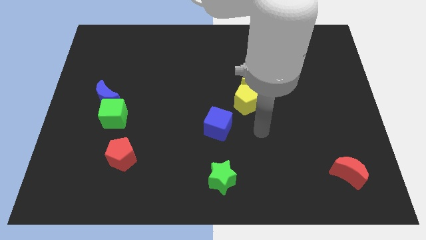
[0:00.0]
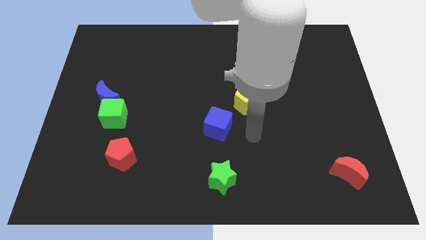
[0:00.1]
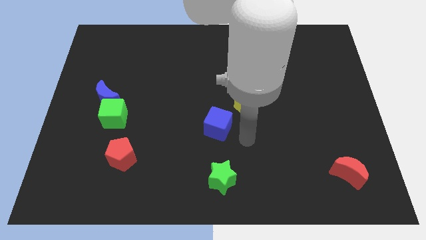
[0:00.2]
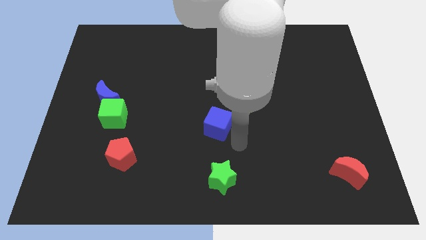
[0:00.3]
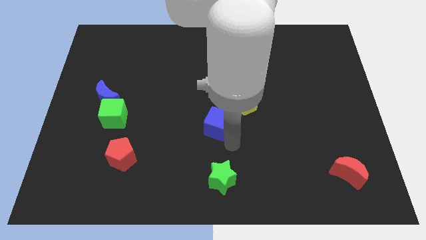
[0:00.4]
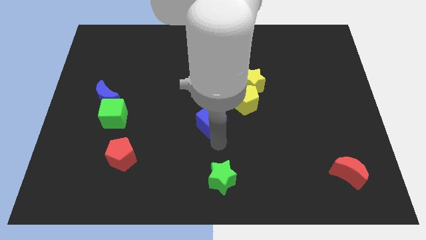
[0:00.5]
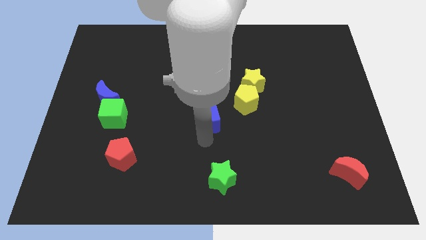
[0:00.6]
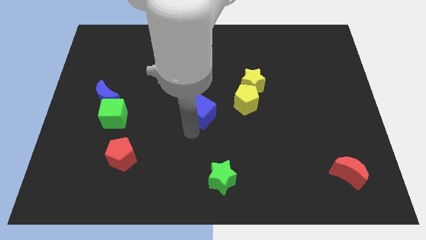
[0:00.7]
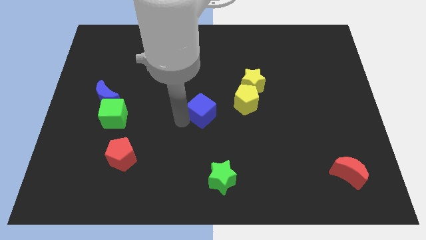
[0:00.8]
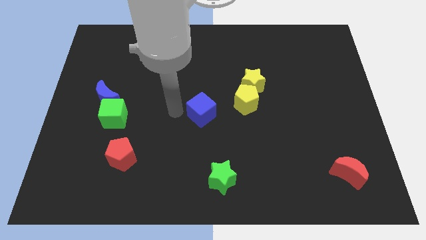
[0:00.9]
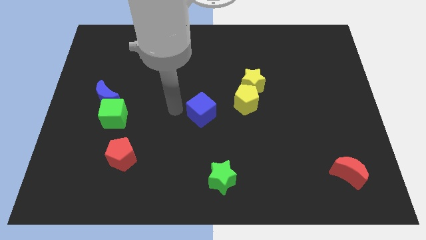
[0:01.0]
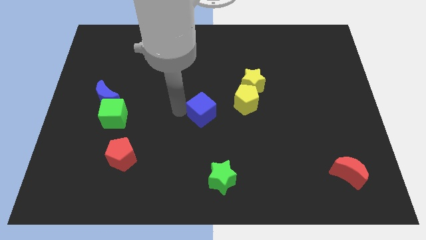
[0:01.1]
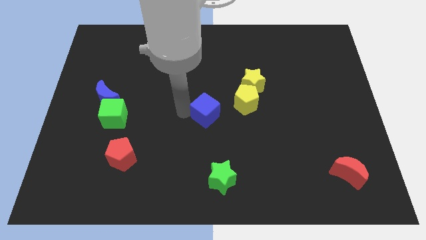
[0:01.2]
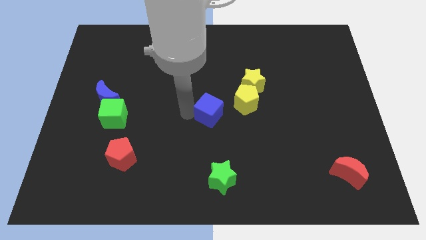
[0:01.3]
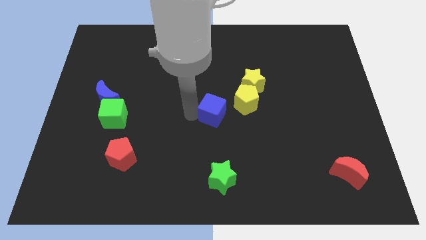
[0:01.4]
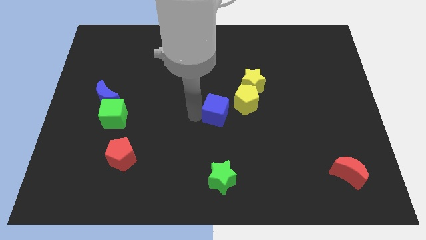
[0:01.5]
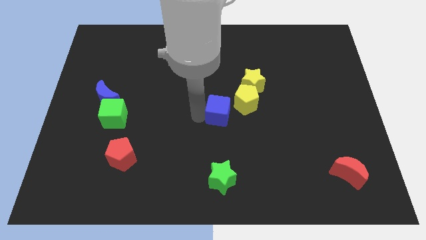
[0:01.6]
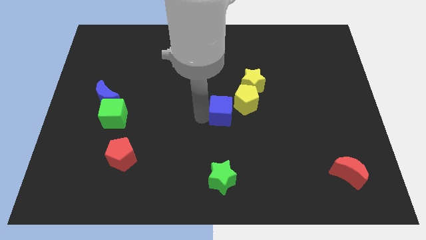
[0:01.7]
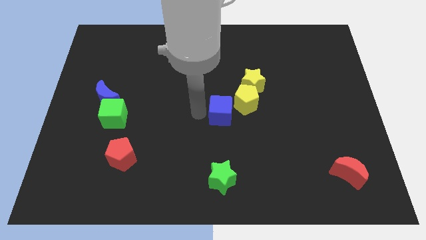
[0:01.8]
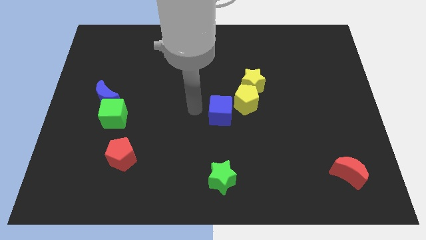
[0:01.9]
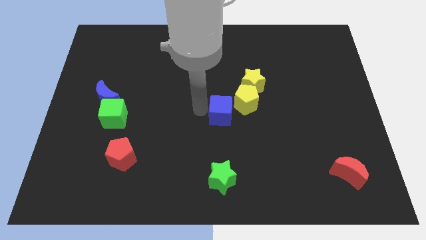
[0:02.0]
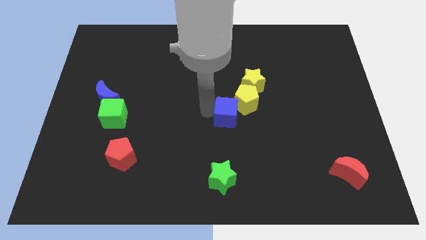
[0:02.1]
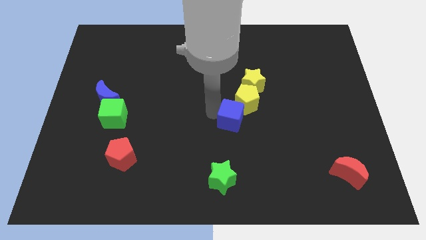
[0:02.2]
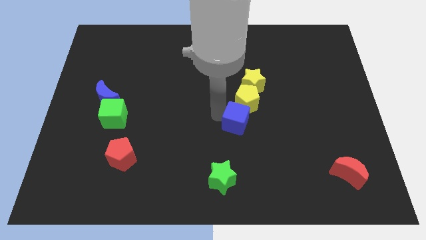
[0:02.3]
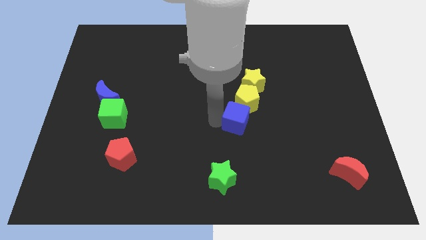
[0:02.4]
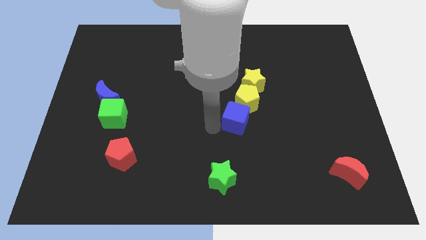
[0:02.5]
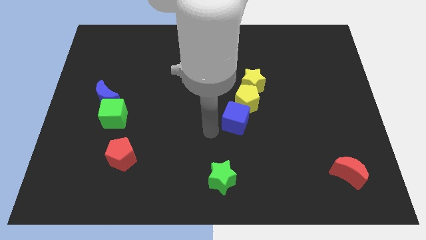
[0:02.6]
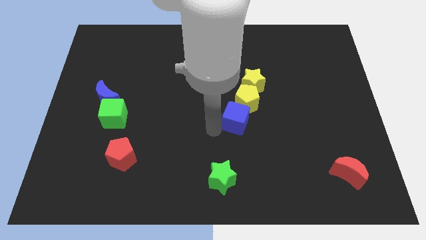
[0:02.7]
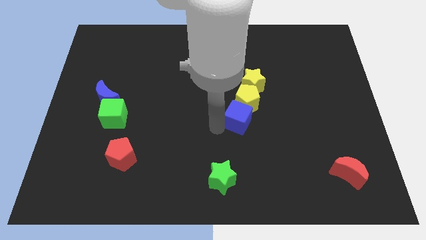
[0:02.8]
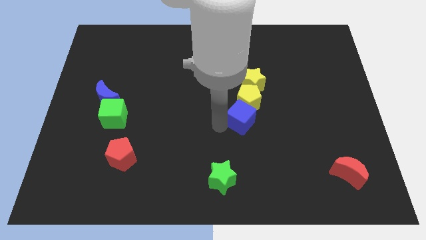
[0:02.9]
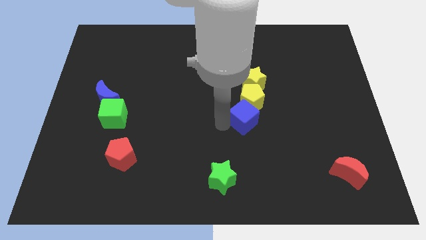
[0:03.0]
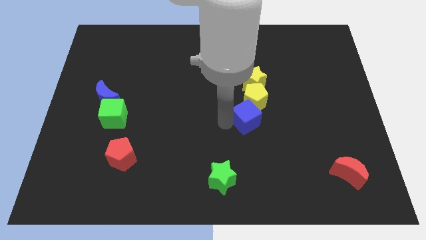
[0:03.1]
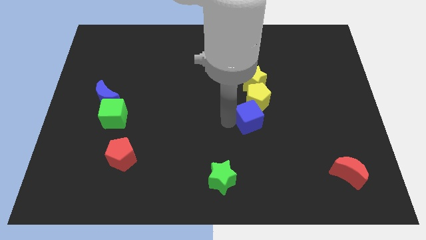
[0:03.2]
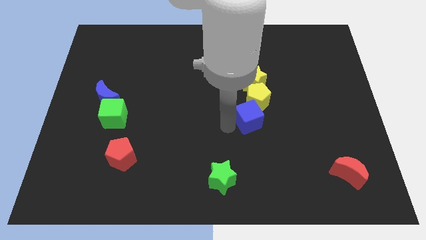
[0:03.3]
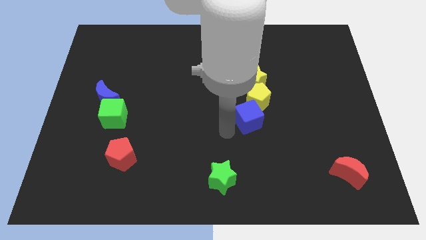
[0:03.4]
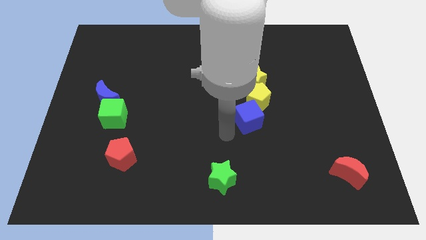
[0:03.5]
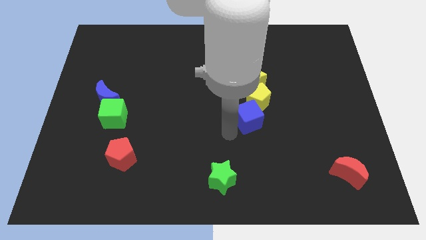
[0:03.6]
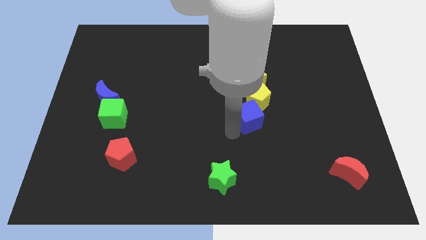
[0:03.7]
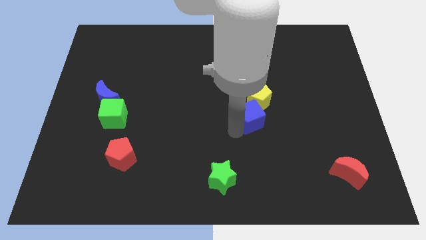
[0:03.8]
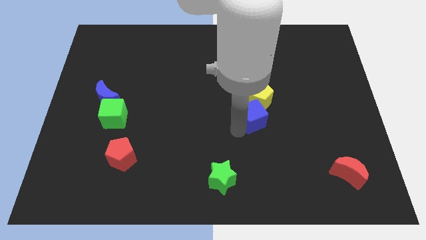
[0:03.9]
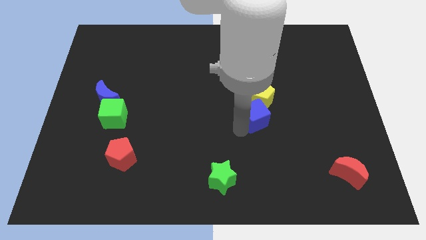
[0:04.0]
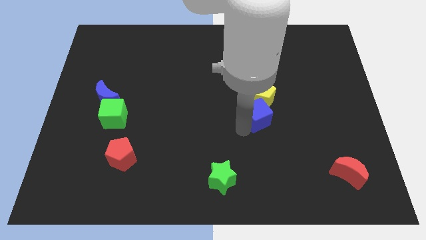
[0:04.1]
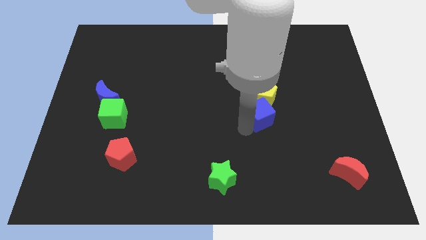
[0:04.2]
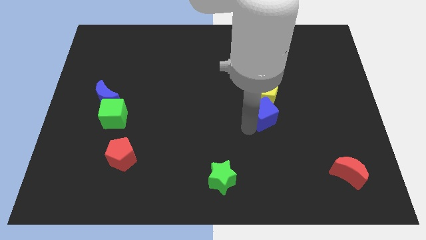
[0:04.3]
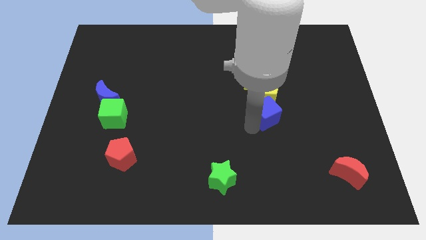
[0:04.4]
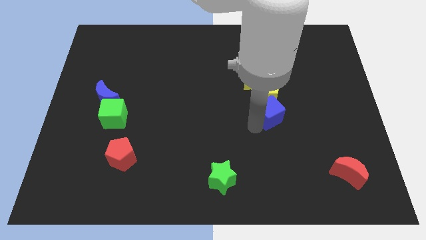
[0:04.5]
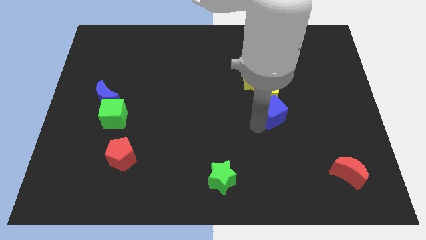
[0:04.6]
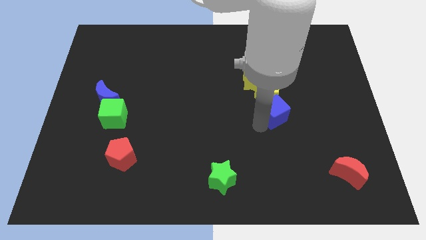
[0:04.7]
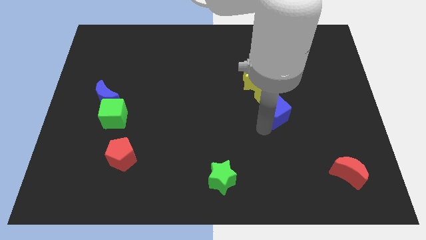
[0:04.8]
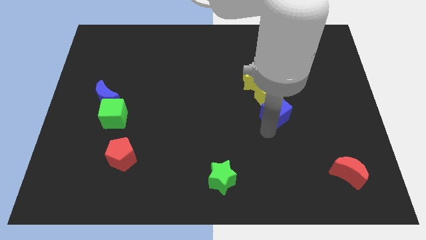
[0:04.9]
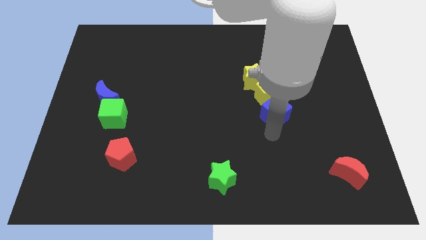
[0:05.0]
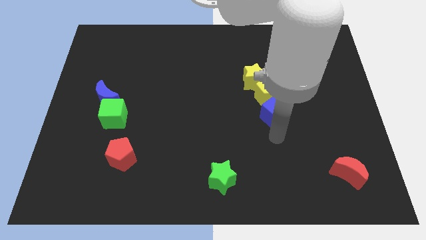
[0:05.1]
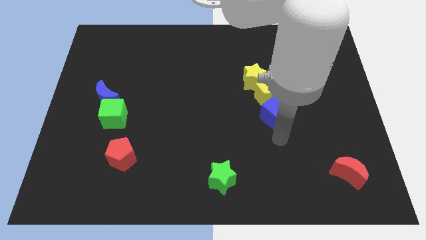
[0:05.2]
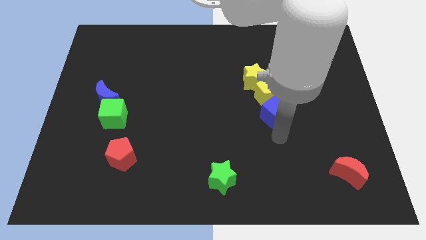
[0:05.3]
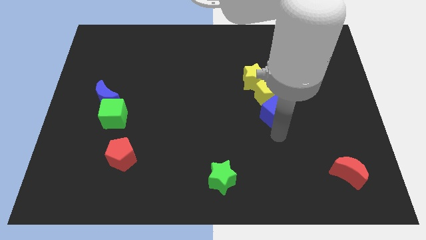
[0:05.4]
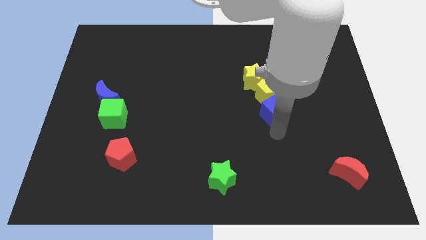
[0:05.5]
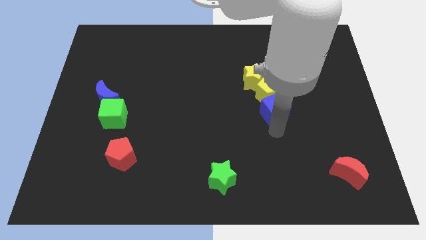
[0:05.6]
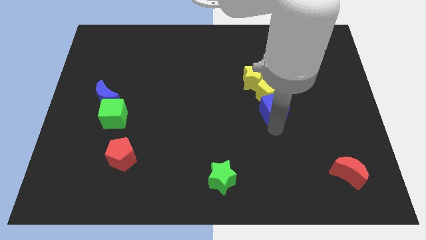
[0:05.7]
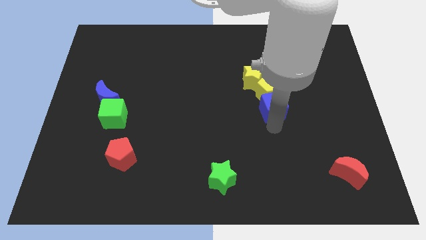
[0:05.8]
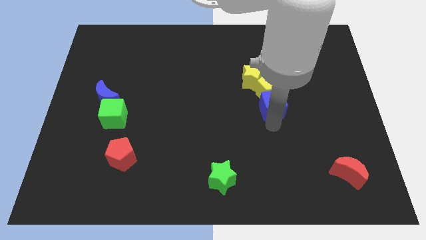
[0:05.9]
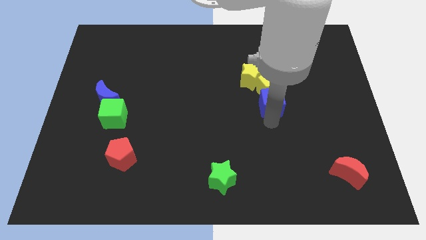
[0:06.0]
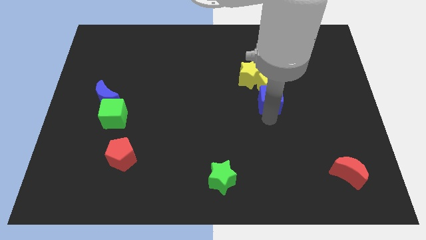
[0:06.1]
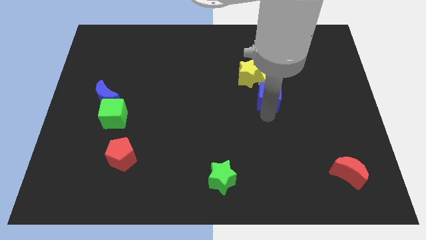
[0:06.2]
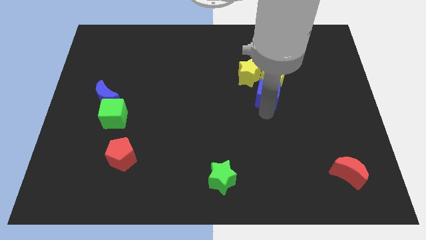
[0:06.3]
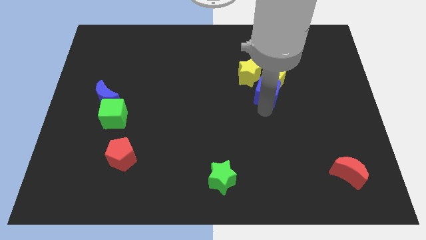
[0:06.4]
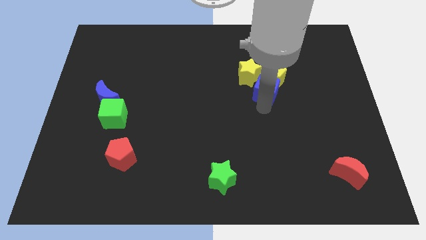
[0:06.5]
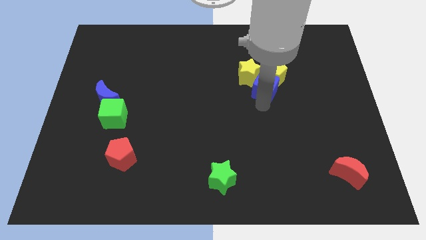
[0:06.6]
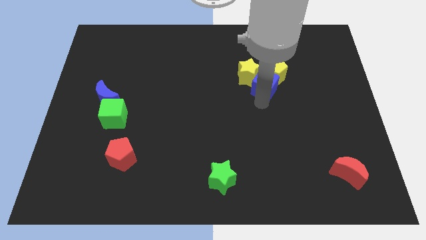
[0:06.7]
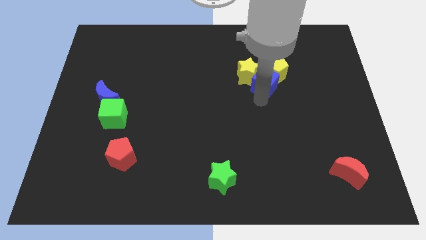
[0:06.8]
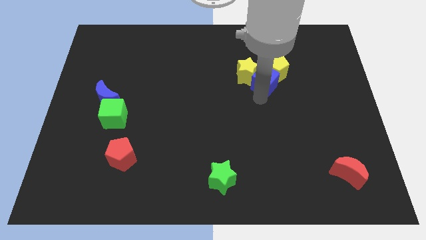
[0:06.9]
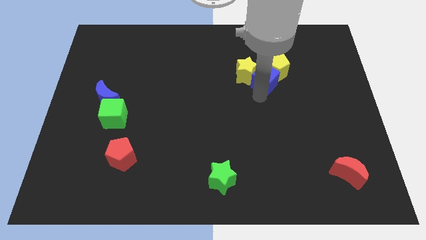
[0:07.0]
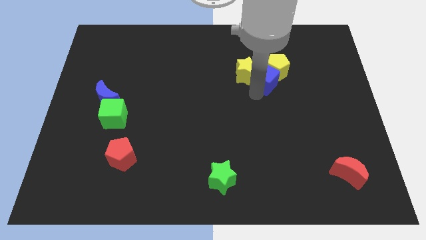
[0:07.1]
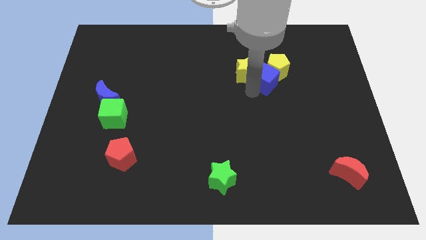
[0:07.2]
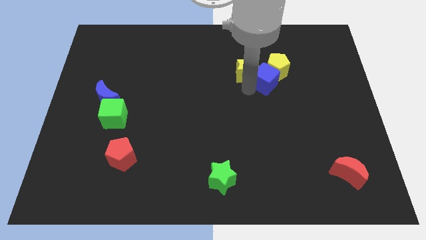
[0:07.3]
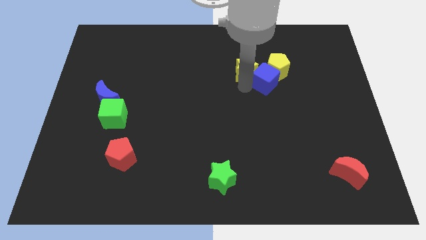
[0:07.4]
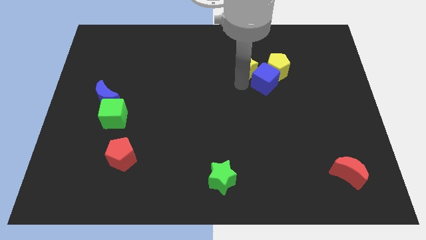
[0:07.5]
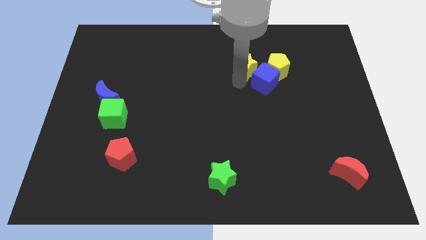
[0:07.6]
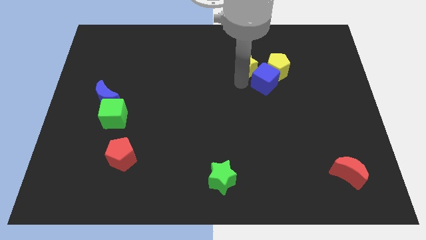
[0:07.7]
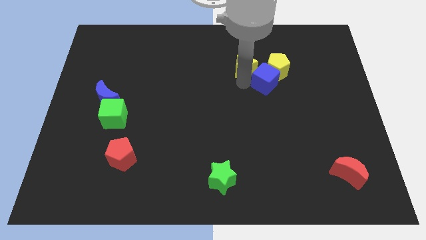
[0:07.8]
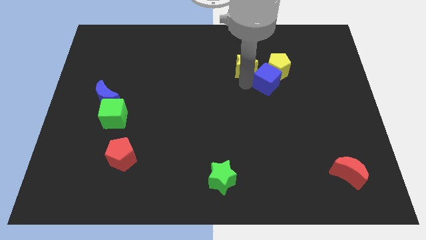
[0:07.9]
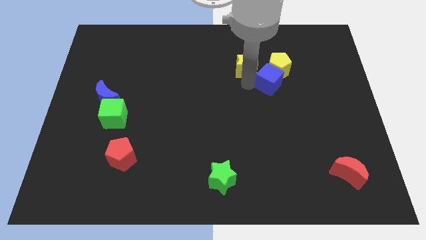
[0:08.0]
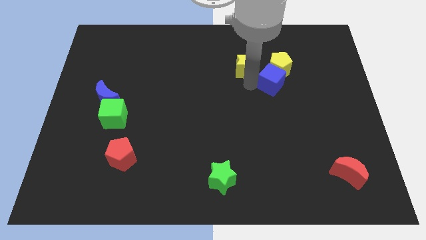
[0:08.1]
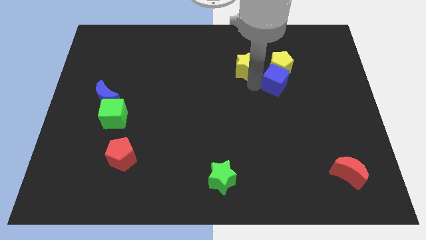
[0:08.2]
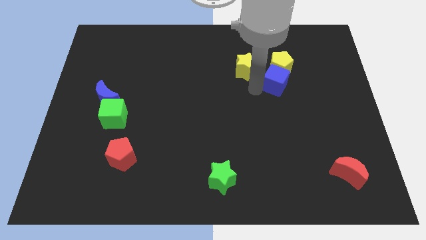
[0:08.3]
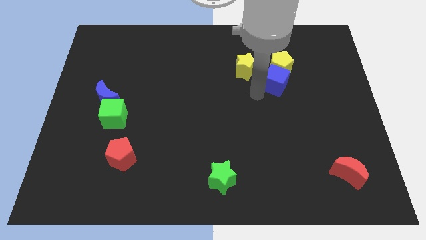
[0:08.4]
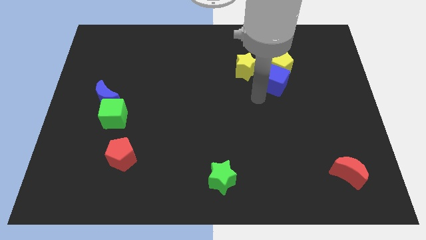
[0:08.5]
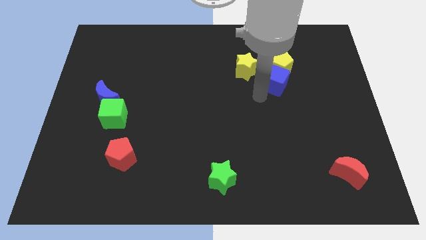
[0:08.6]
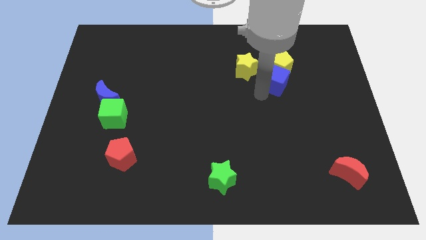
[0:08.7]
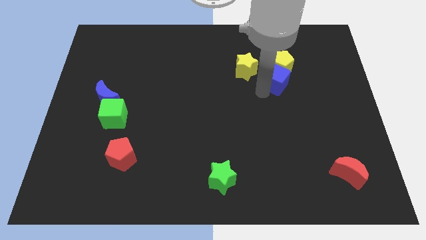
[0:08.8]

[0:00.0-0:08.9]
slide the blue cube up and to the right diagonally
